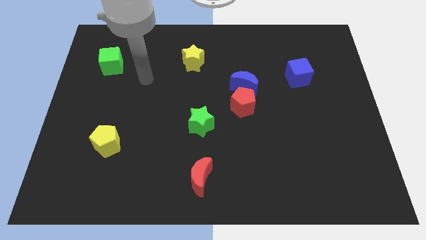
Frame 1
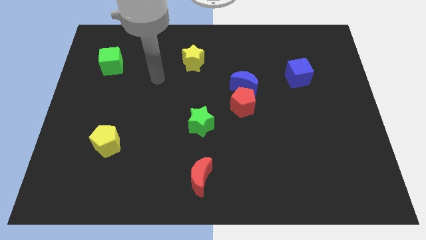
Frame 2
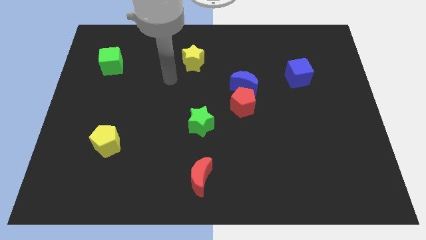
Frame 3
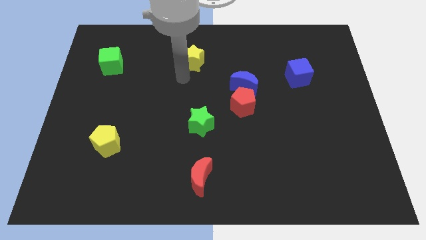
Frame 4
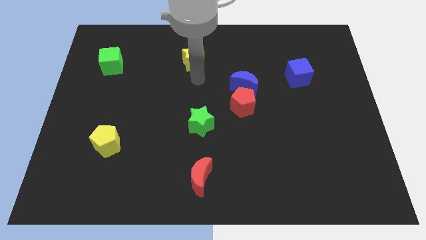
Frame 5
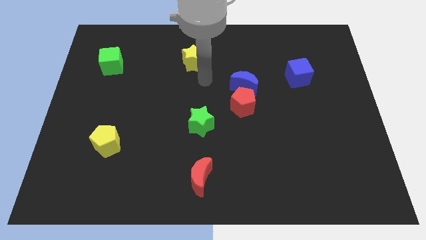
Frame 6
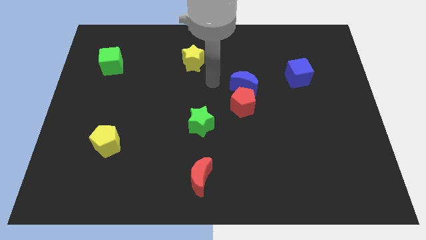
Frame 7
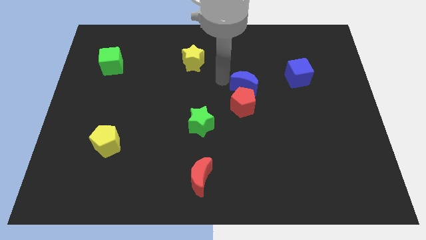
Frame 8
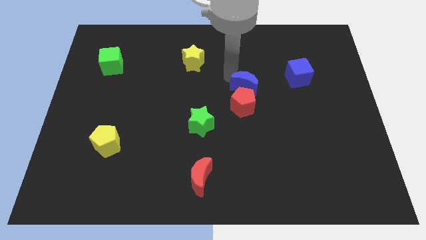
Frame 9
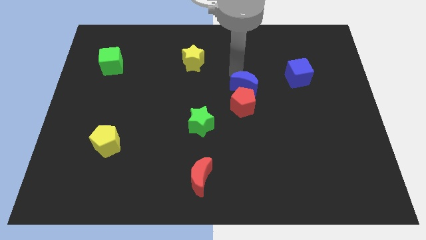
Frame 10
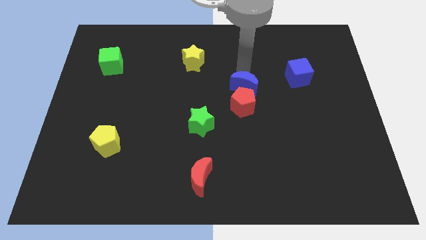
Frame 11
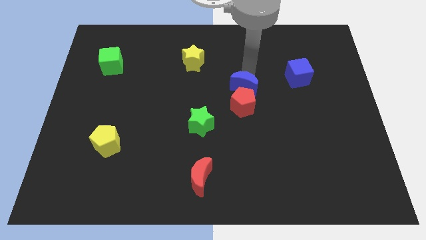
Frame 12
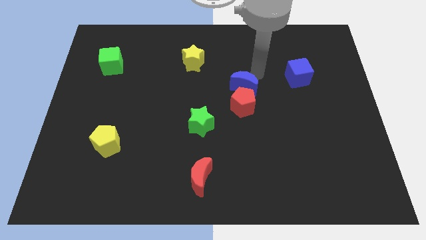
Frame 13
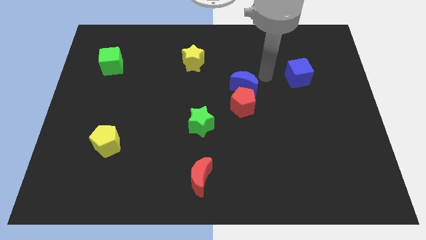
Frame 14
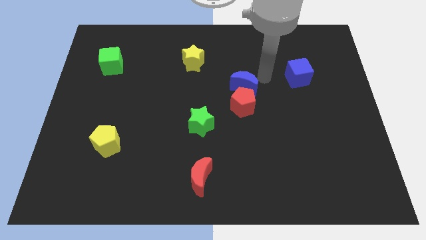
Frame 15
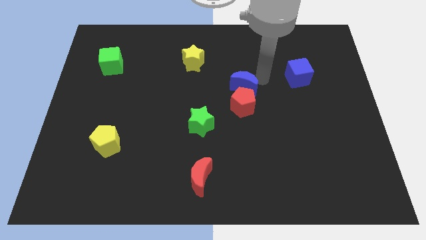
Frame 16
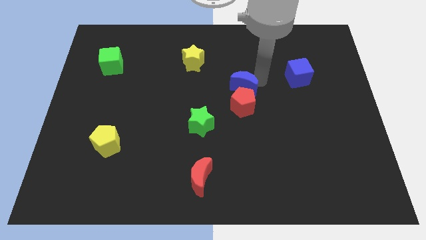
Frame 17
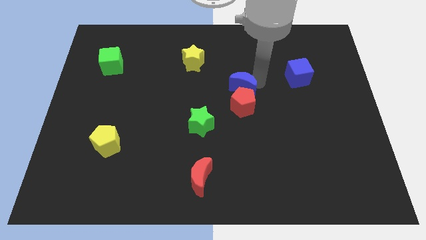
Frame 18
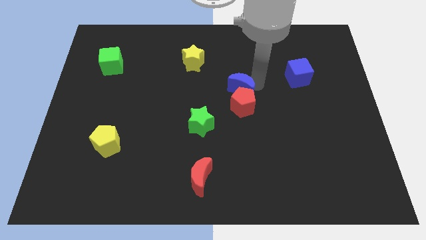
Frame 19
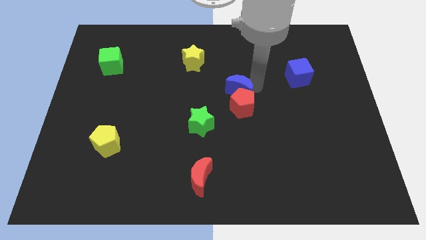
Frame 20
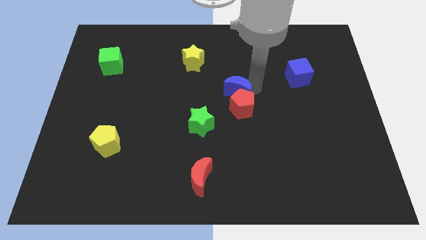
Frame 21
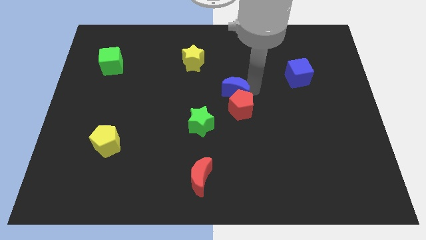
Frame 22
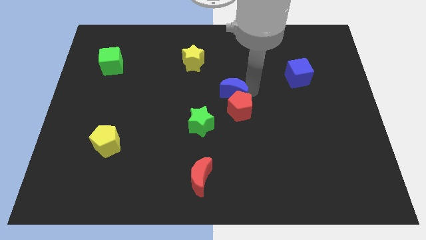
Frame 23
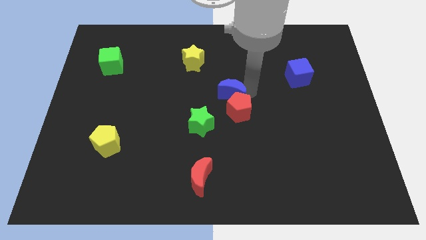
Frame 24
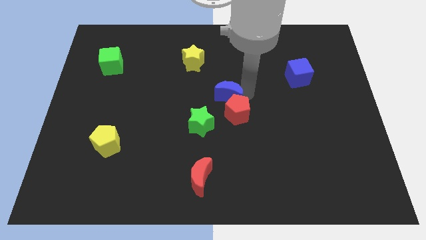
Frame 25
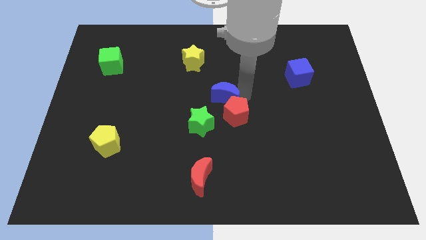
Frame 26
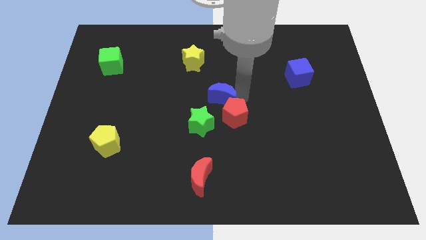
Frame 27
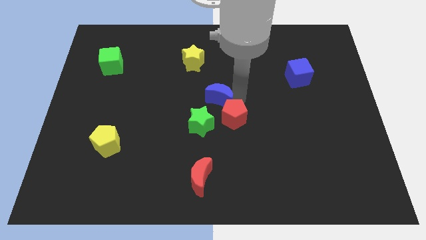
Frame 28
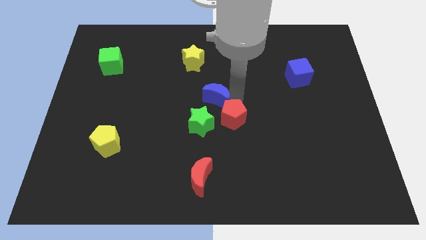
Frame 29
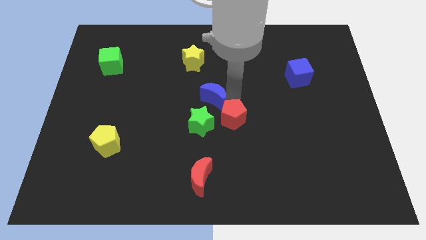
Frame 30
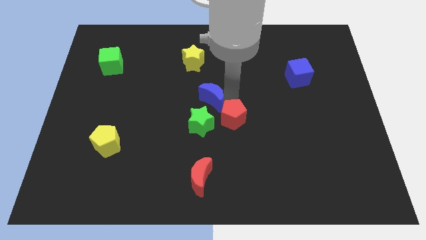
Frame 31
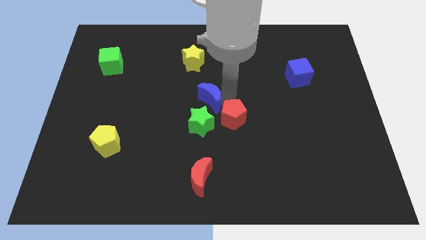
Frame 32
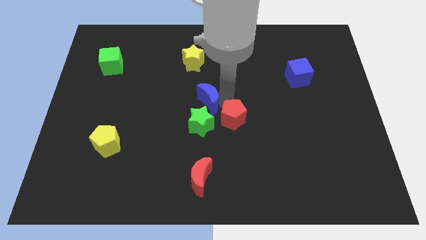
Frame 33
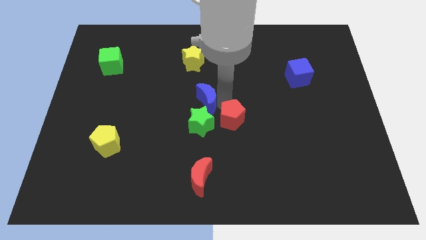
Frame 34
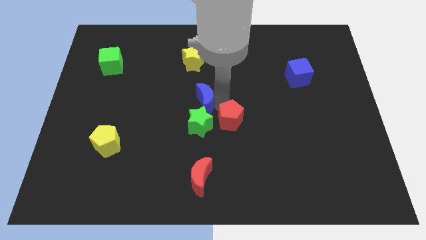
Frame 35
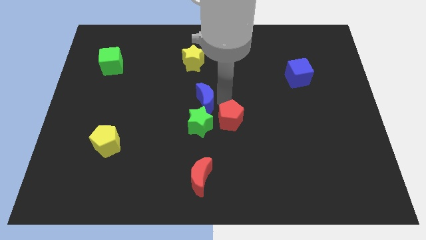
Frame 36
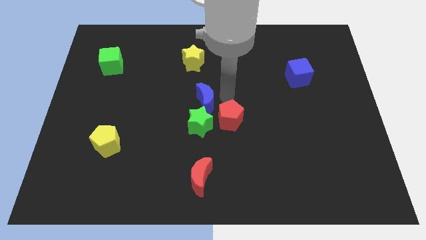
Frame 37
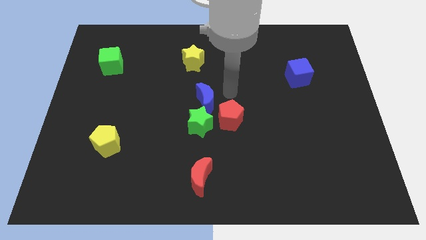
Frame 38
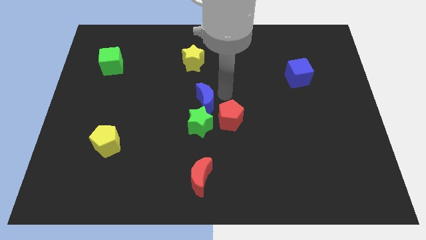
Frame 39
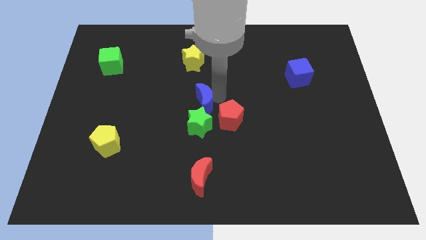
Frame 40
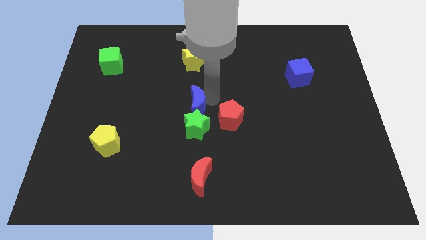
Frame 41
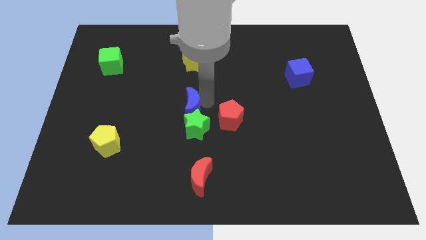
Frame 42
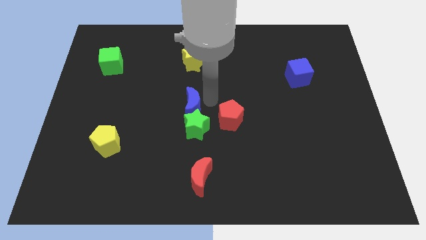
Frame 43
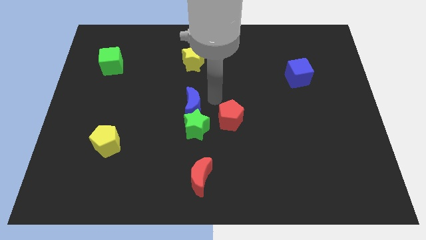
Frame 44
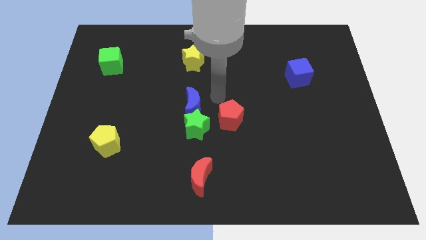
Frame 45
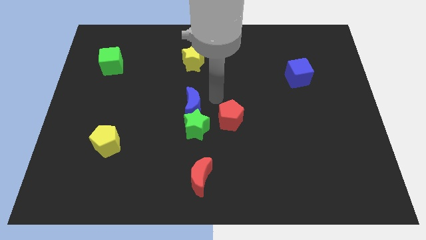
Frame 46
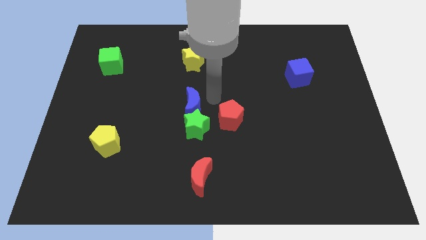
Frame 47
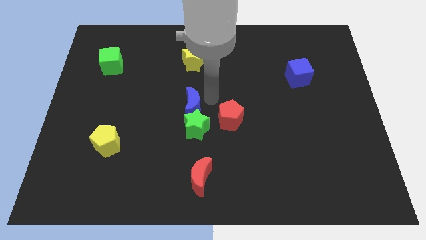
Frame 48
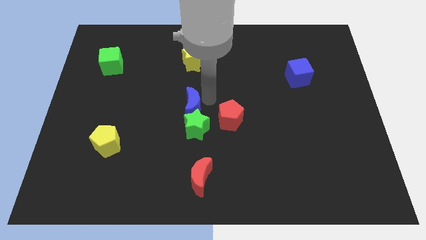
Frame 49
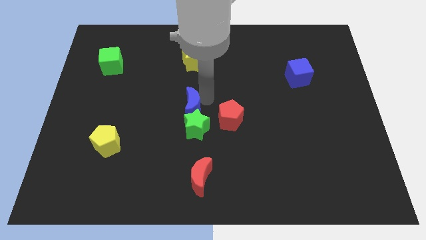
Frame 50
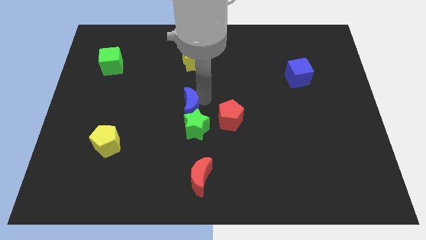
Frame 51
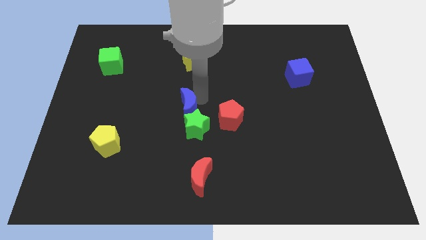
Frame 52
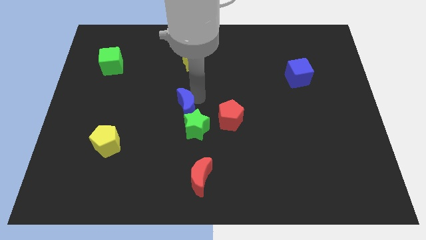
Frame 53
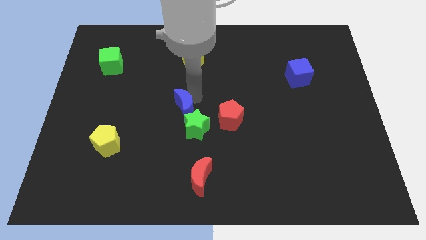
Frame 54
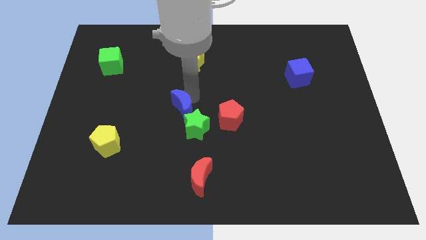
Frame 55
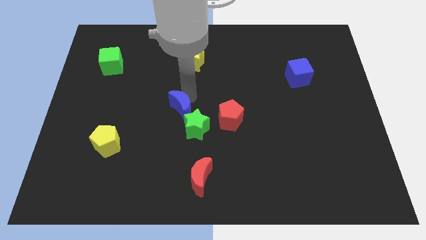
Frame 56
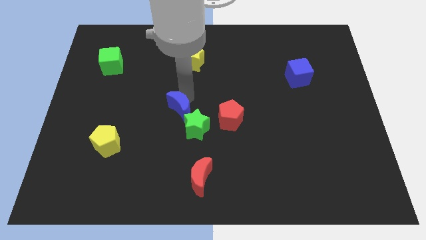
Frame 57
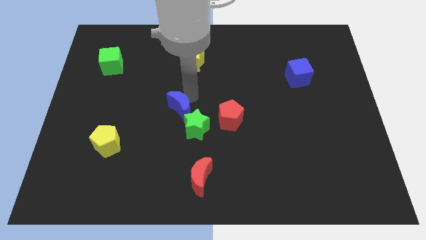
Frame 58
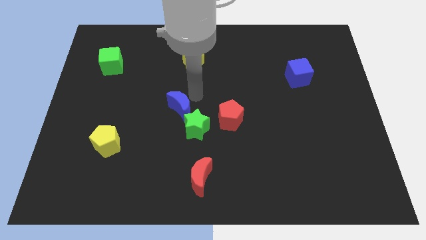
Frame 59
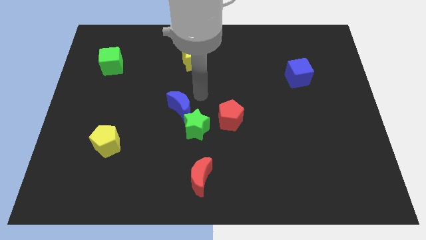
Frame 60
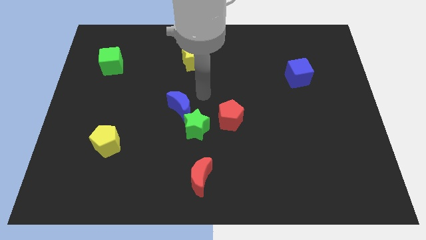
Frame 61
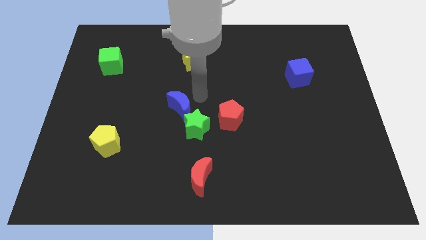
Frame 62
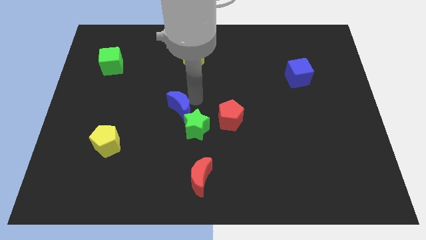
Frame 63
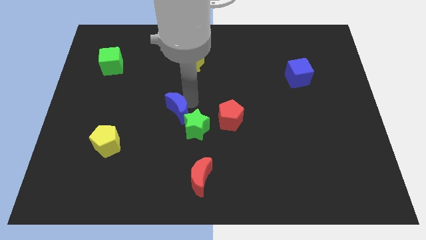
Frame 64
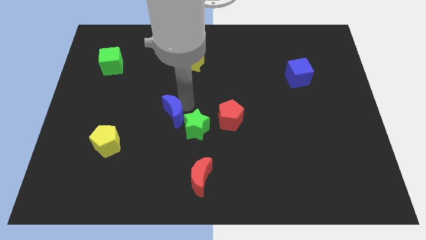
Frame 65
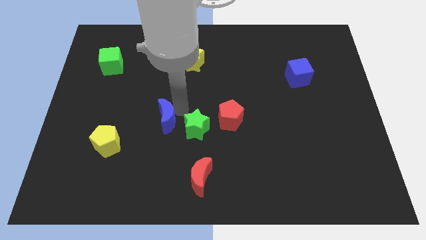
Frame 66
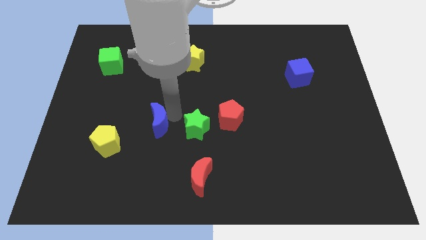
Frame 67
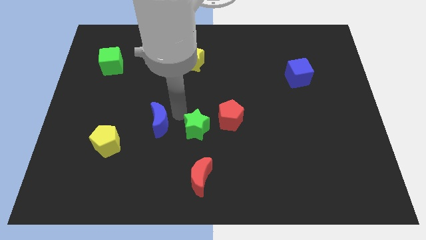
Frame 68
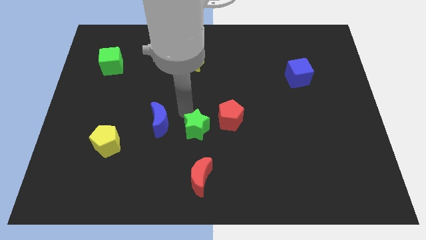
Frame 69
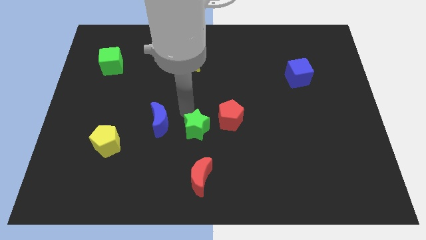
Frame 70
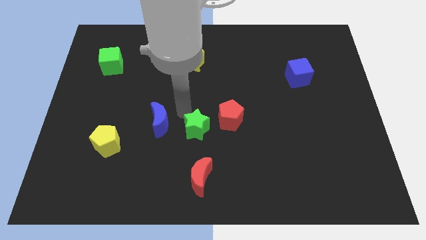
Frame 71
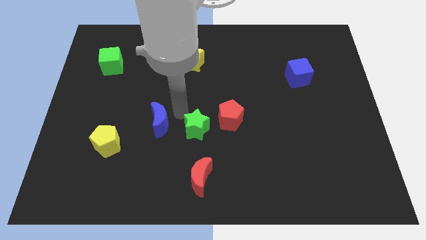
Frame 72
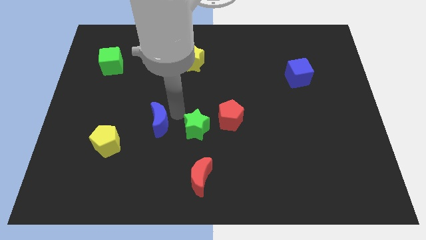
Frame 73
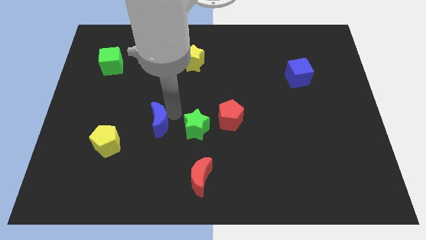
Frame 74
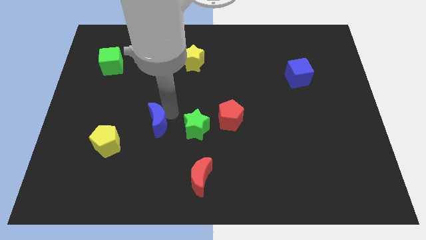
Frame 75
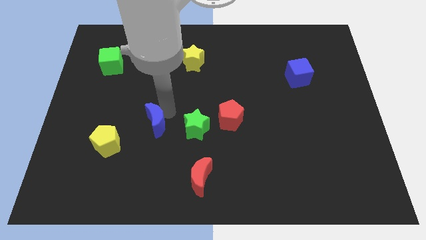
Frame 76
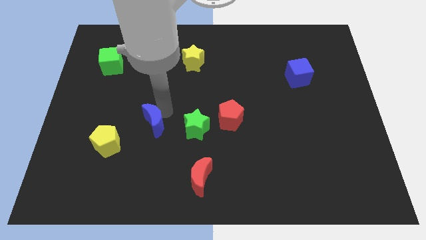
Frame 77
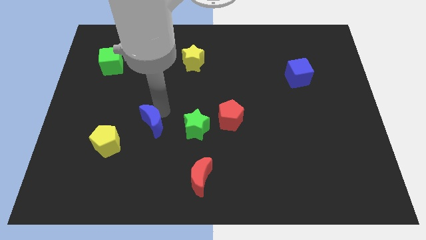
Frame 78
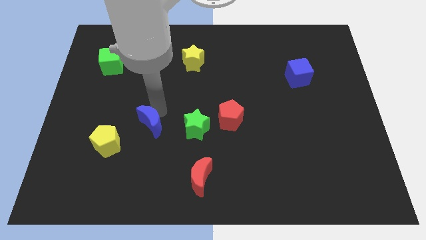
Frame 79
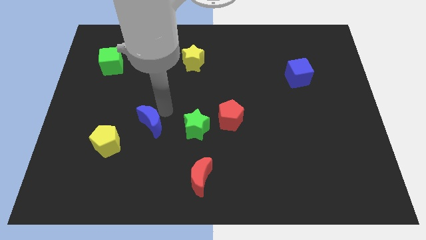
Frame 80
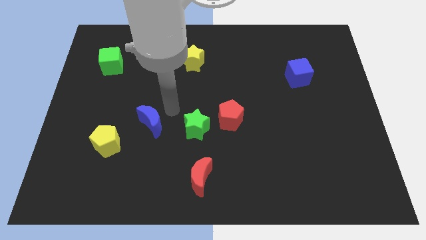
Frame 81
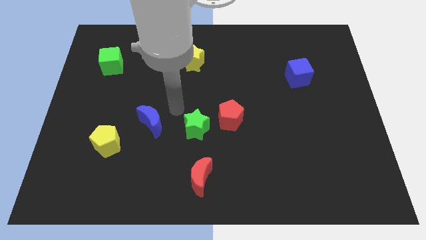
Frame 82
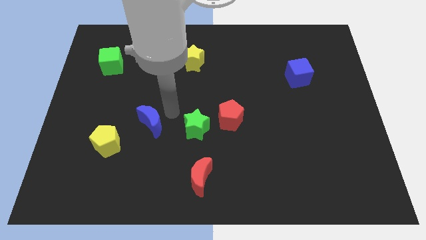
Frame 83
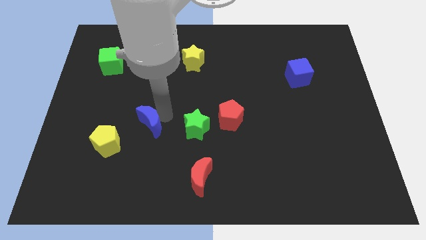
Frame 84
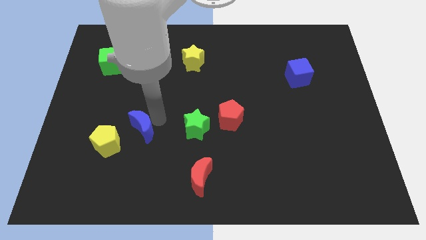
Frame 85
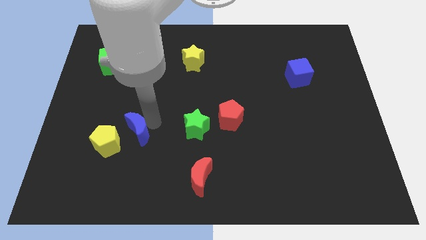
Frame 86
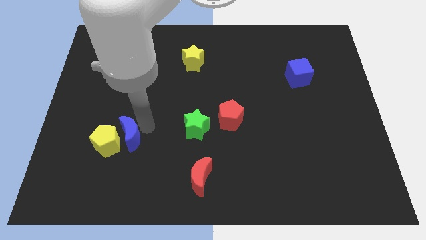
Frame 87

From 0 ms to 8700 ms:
push the blue moon towards the yellow pentagon
